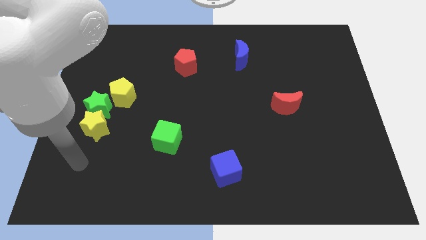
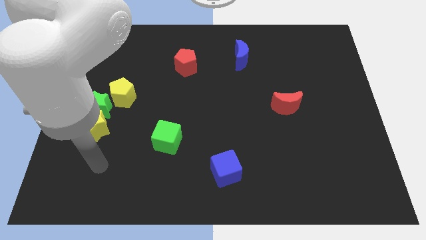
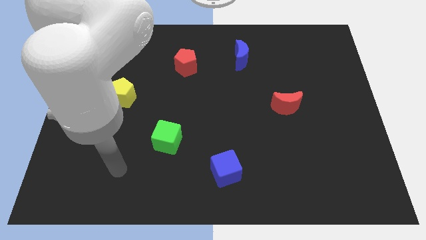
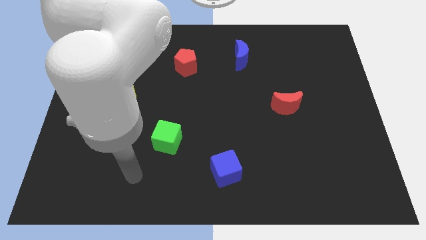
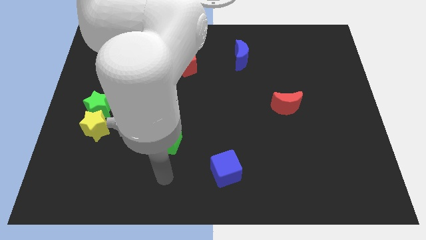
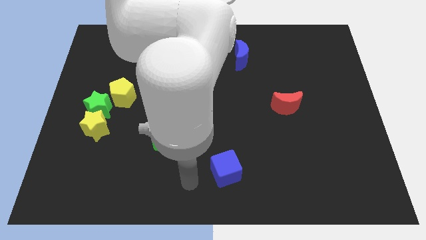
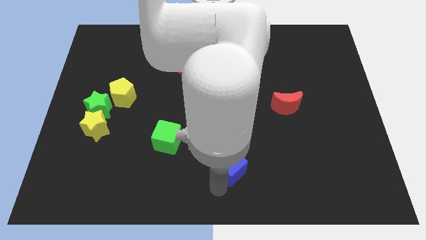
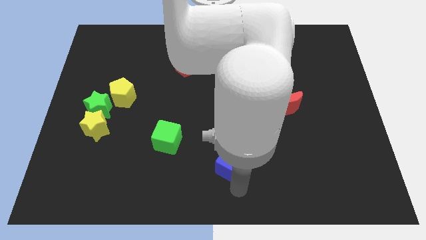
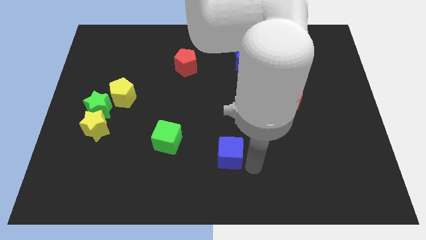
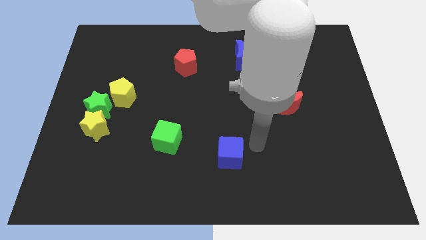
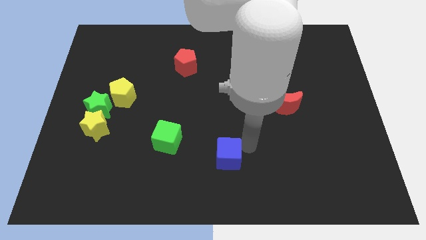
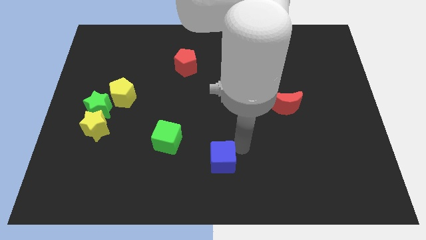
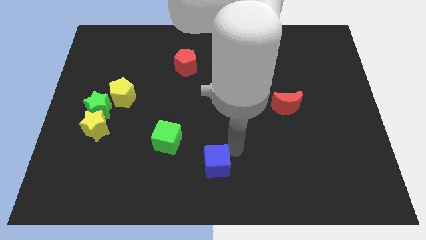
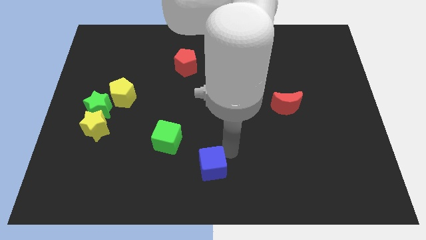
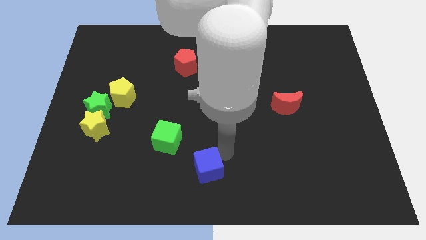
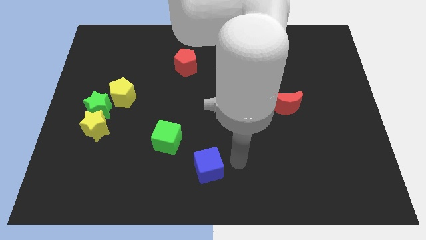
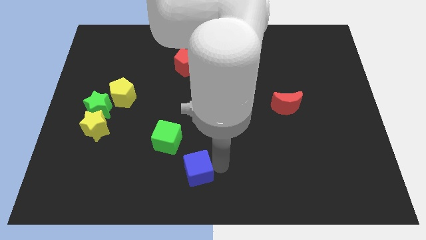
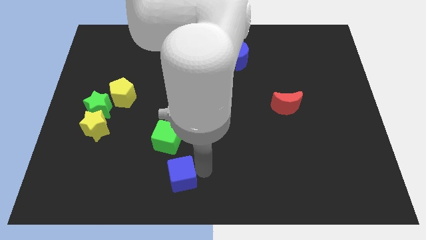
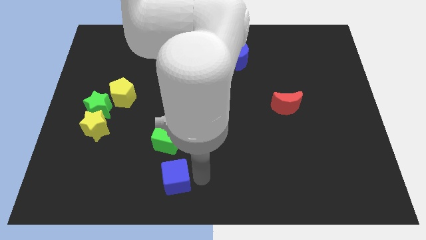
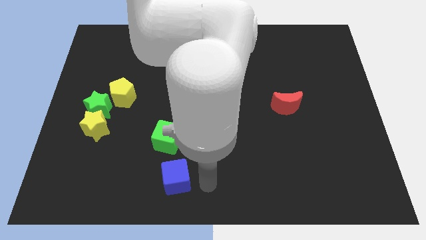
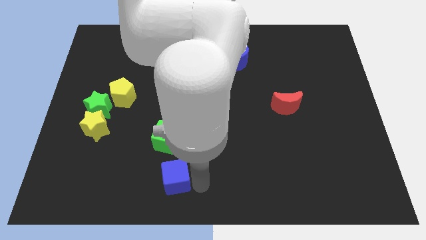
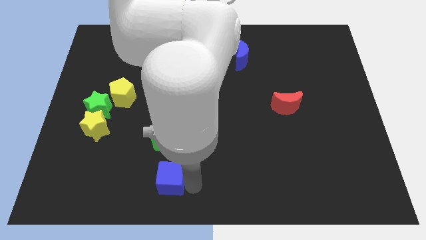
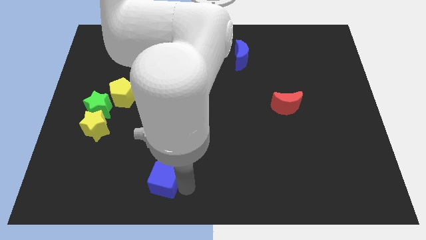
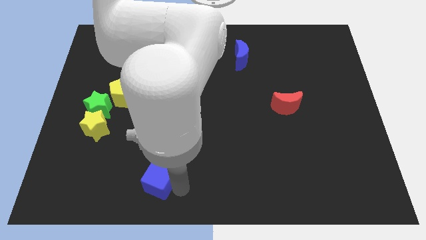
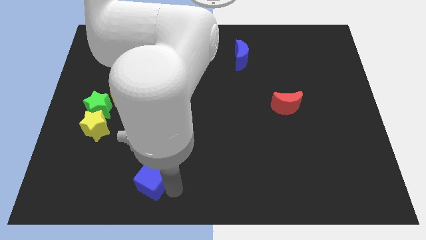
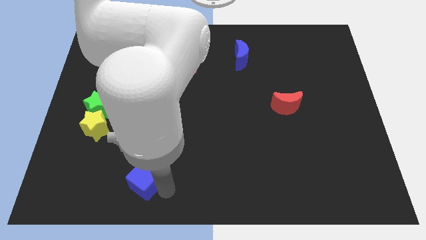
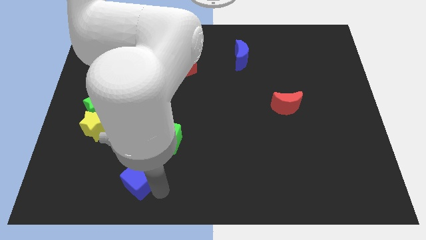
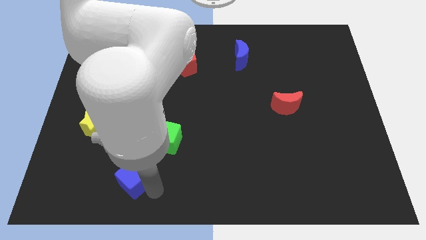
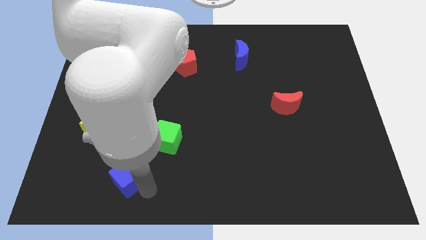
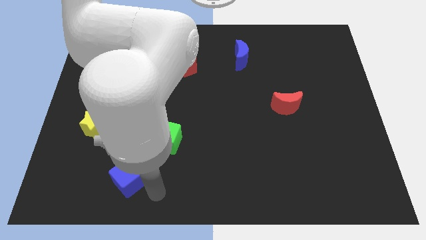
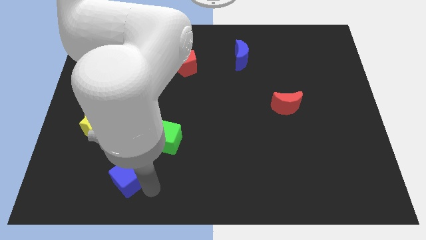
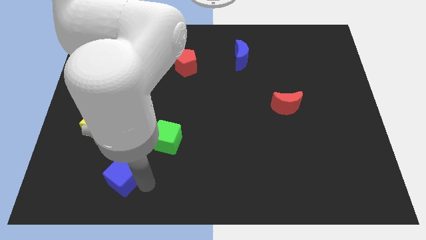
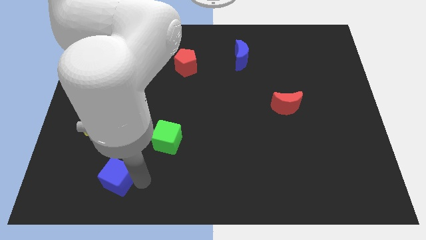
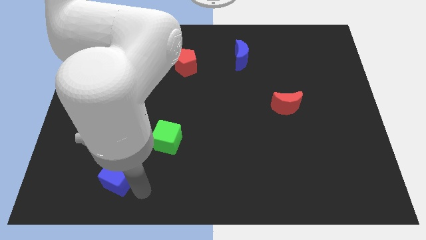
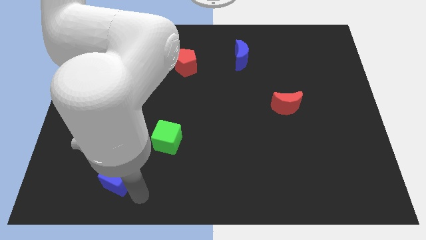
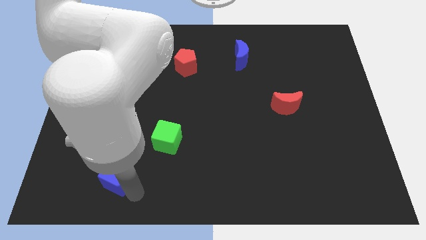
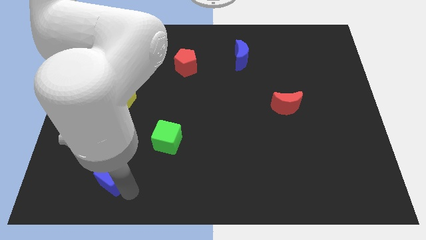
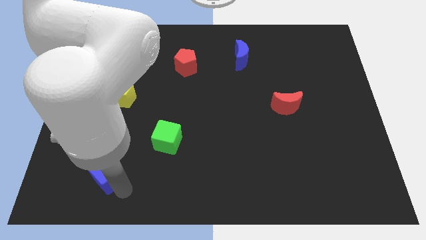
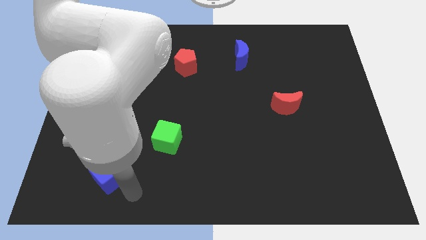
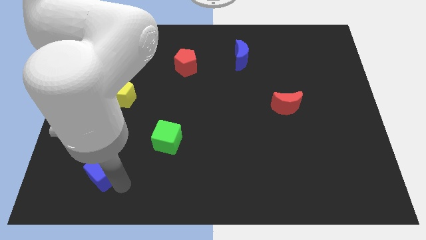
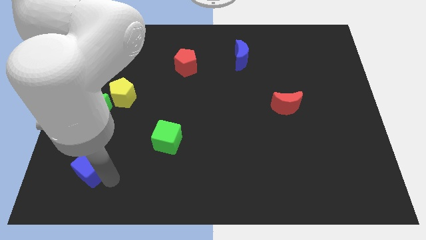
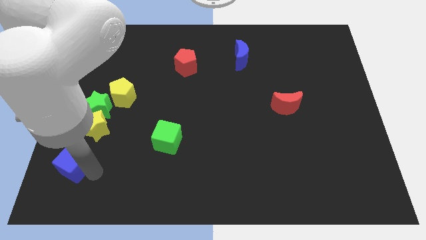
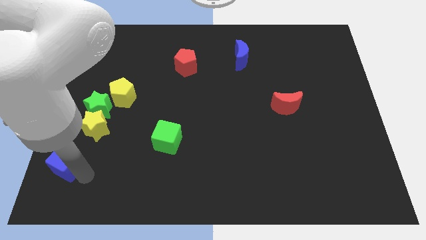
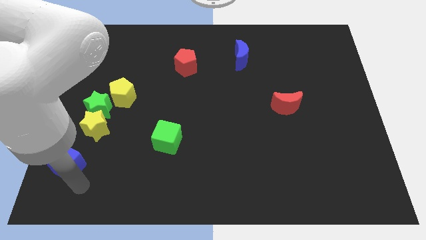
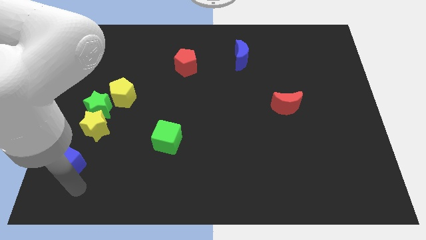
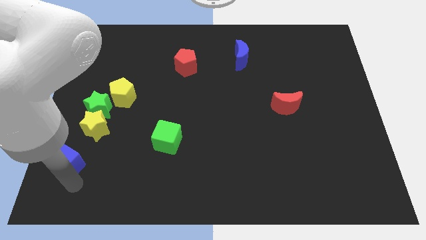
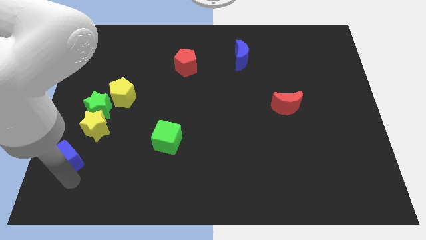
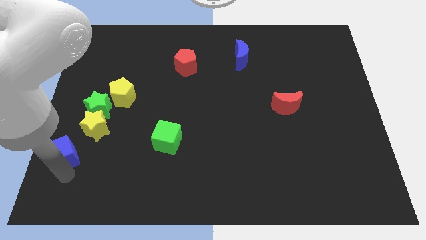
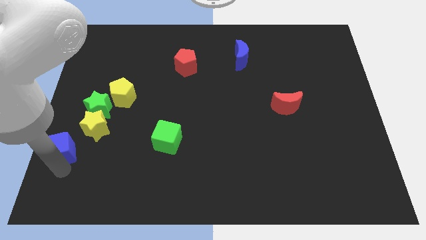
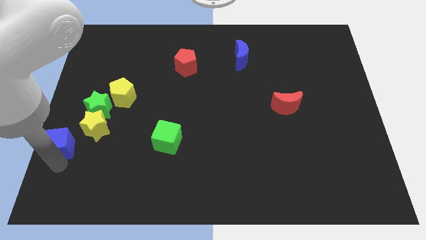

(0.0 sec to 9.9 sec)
put the blue cube to the left side of the board

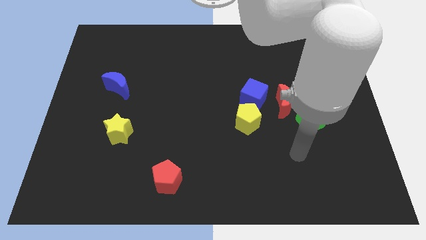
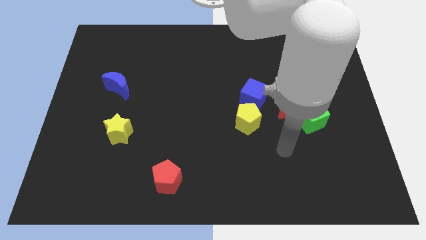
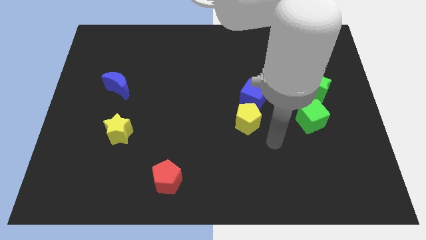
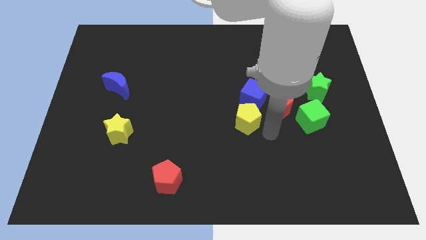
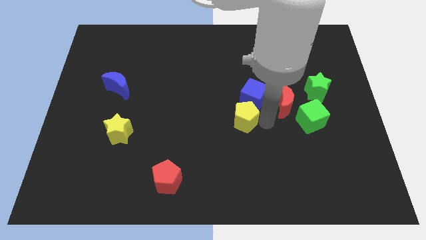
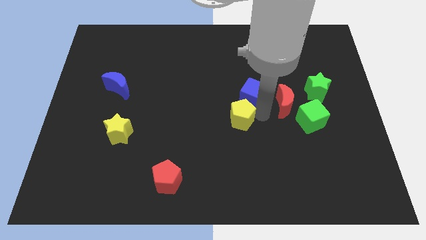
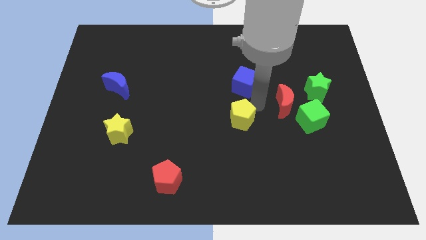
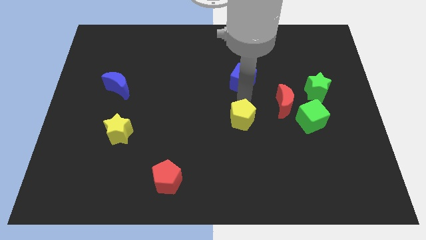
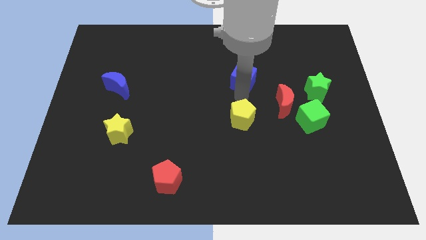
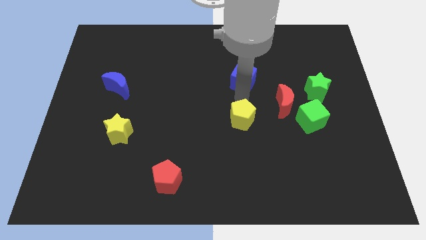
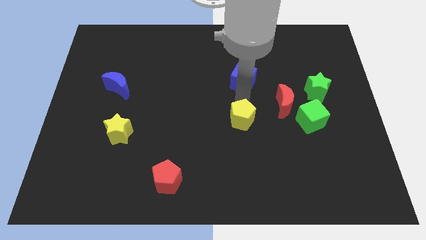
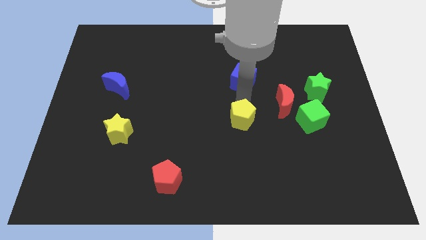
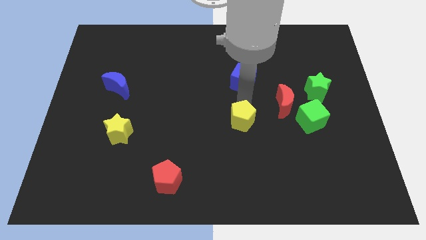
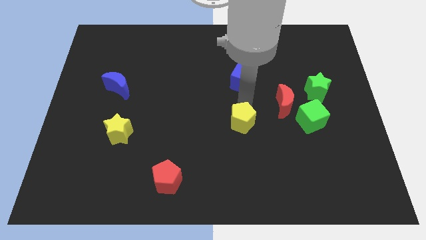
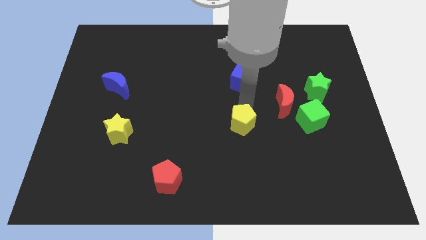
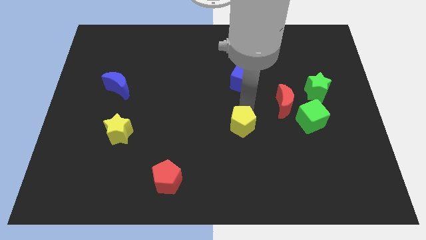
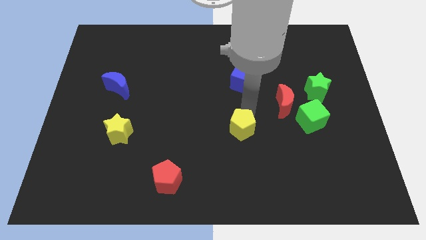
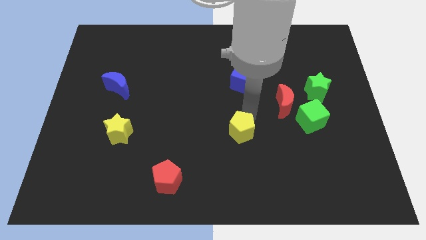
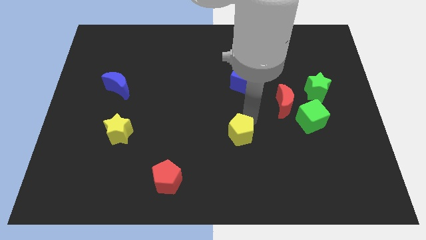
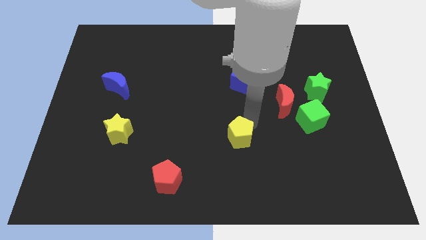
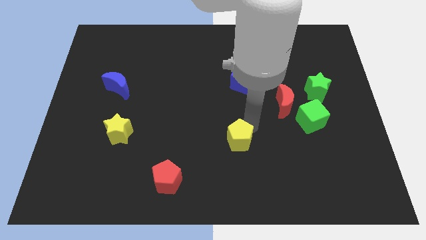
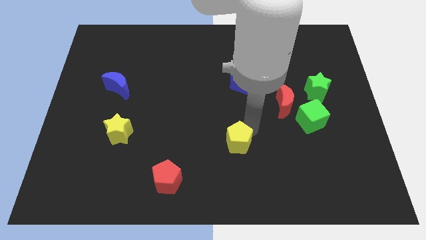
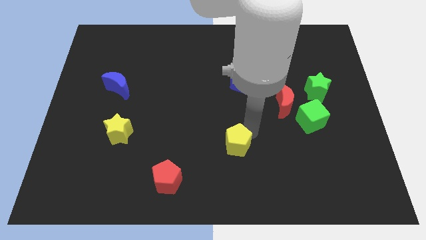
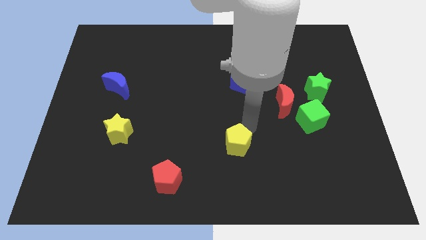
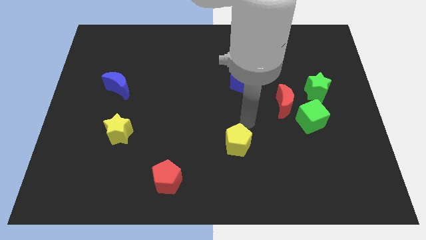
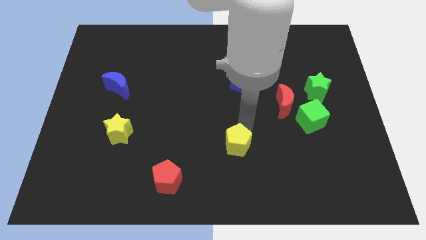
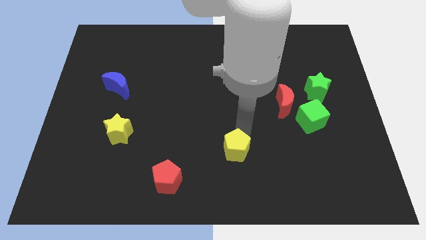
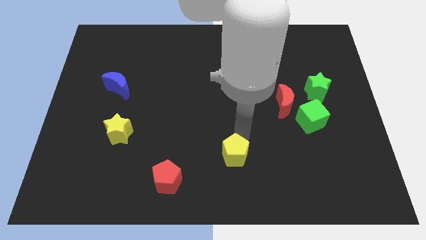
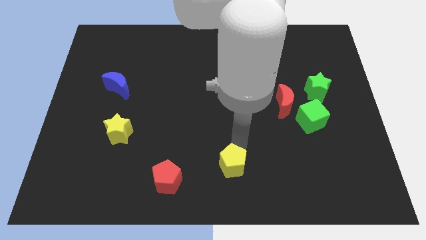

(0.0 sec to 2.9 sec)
put the yellow pentagon to the bottom side

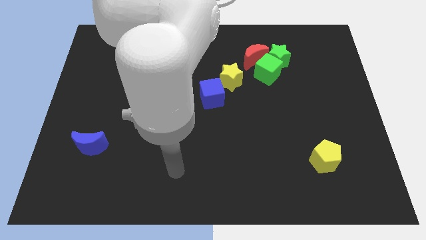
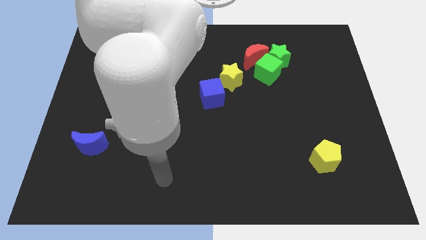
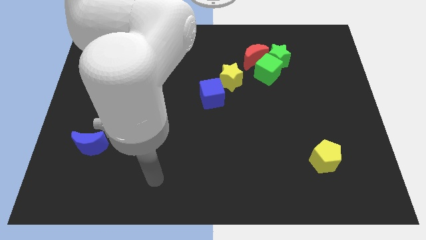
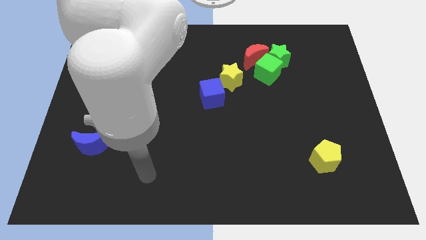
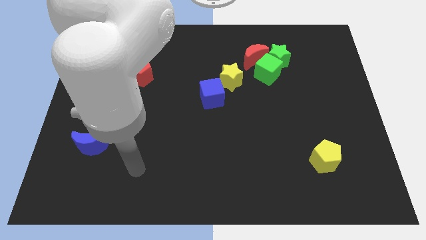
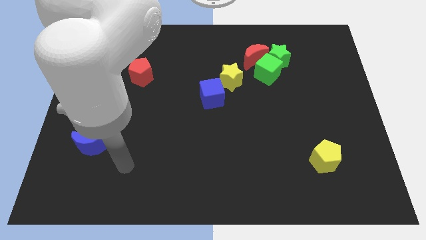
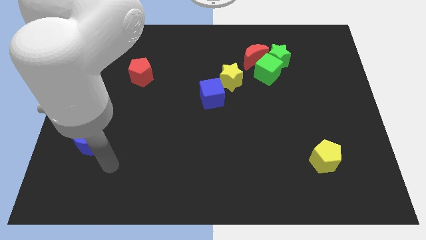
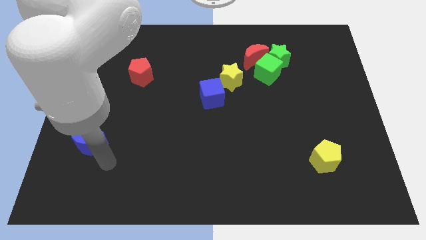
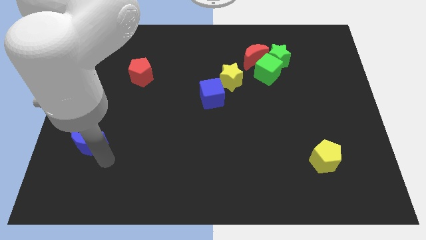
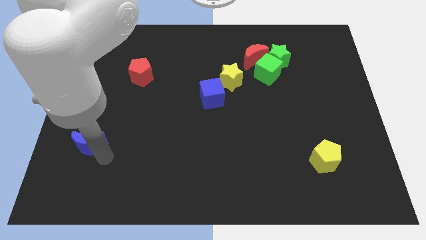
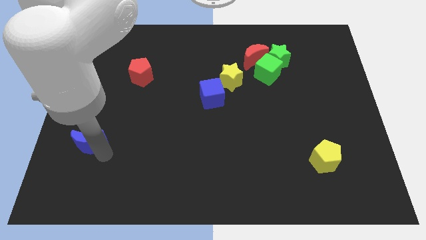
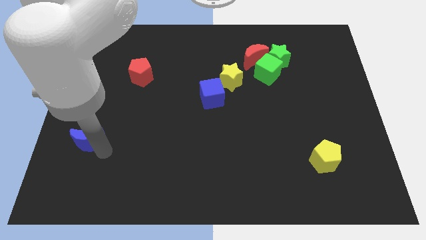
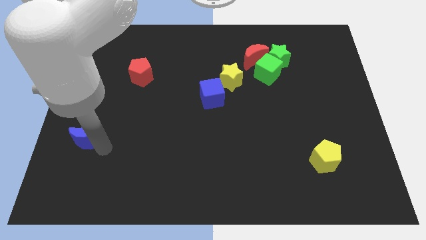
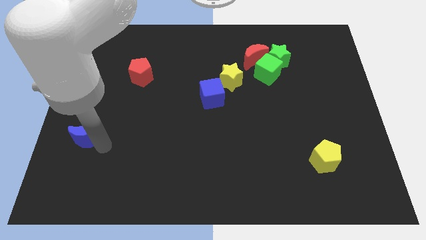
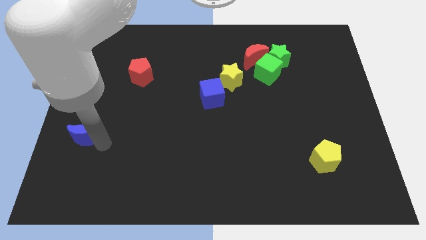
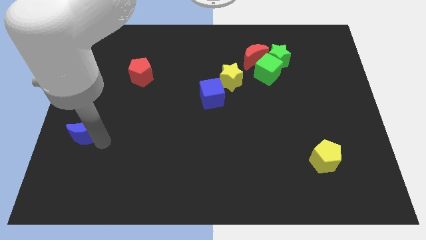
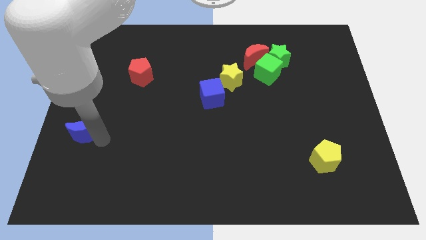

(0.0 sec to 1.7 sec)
move the blue moon to the left side of the board
